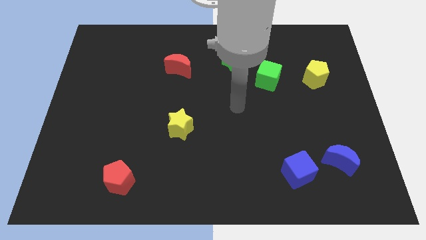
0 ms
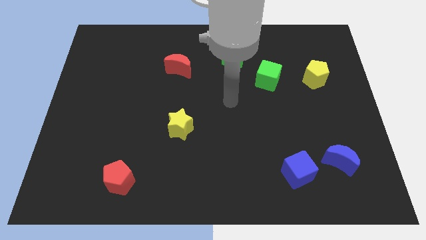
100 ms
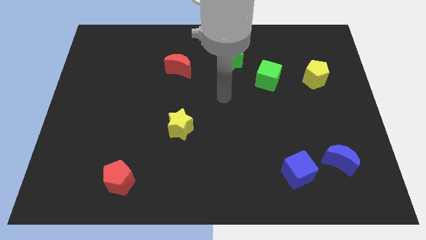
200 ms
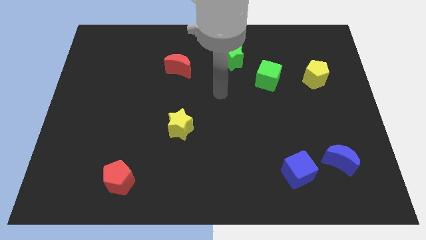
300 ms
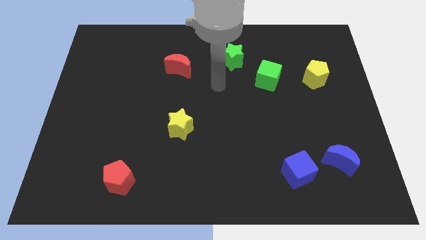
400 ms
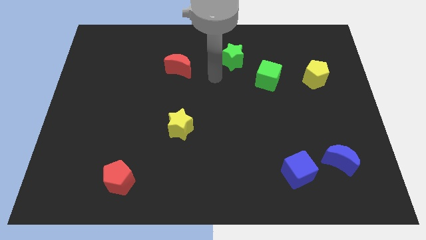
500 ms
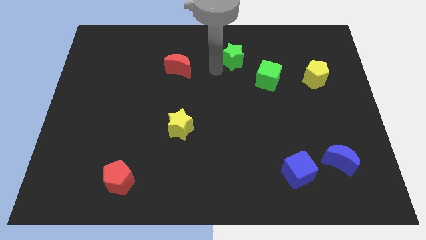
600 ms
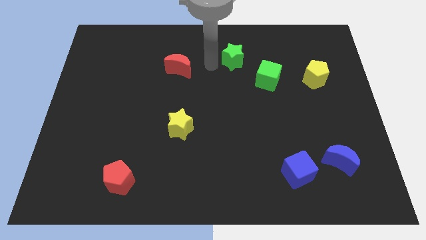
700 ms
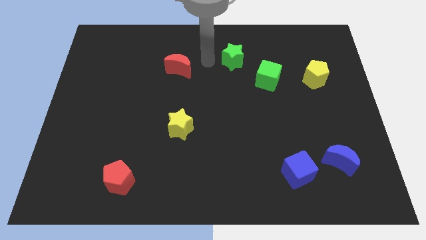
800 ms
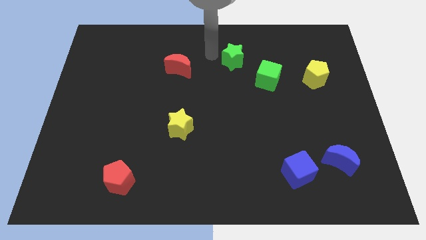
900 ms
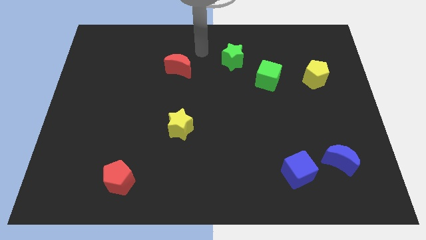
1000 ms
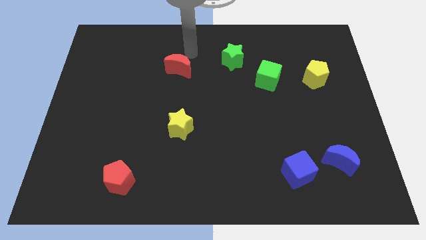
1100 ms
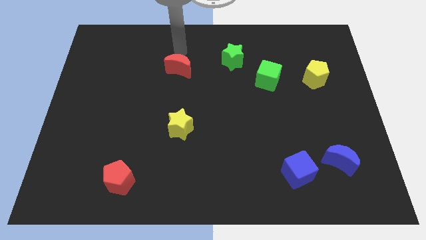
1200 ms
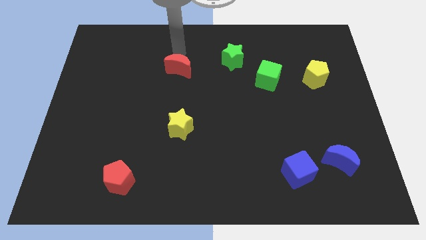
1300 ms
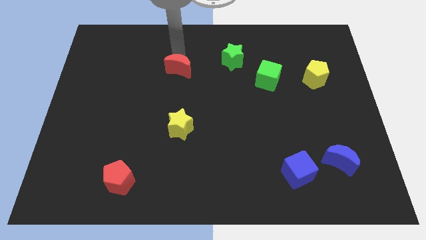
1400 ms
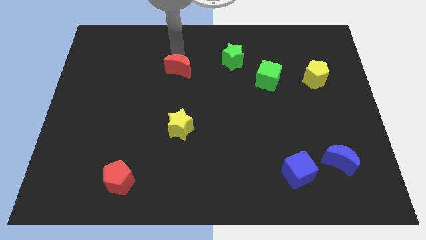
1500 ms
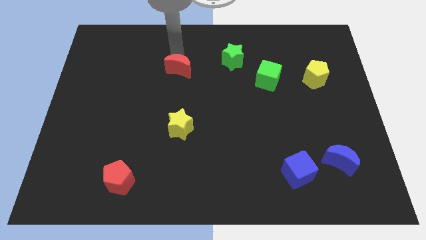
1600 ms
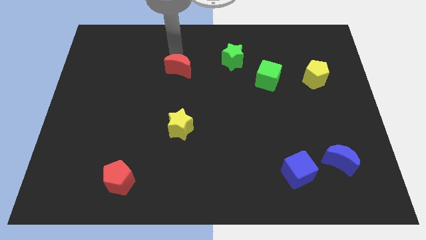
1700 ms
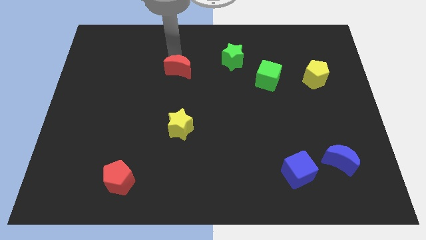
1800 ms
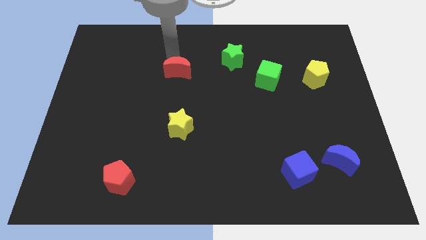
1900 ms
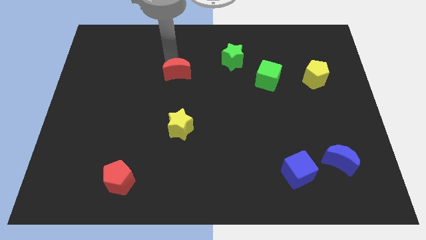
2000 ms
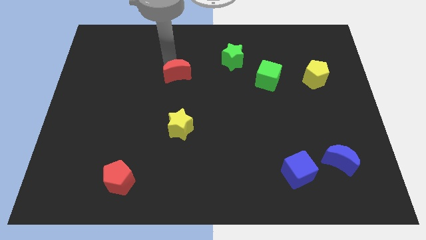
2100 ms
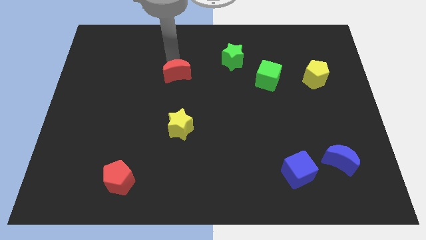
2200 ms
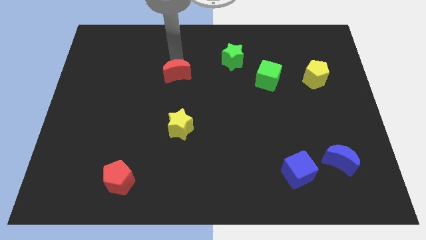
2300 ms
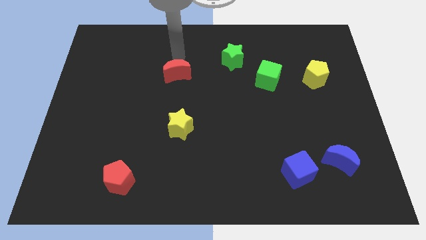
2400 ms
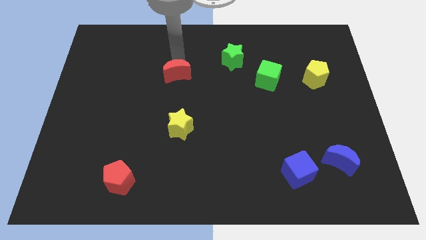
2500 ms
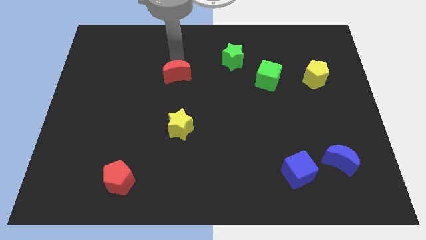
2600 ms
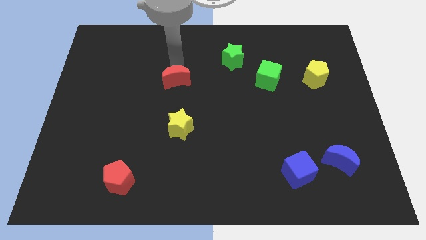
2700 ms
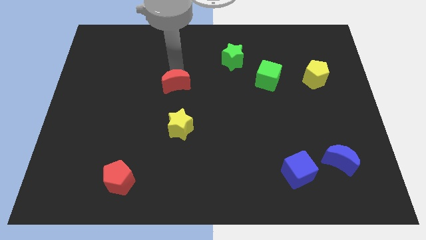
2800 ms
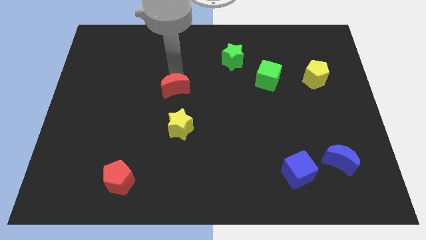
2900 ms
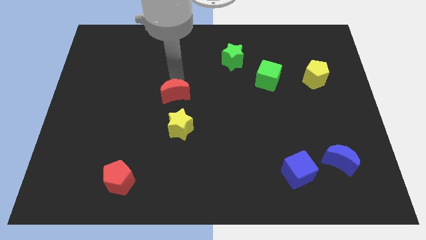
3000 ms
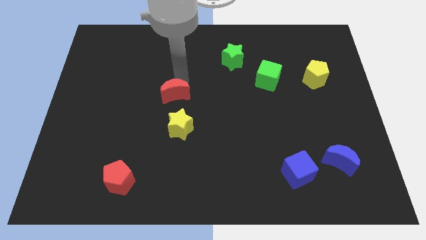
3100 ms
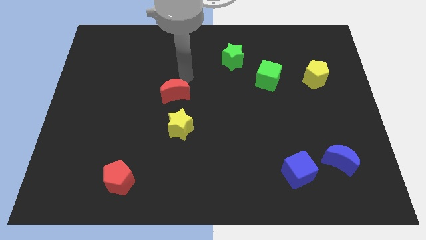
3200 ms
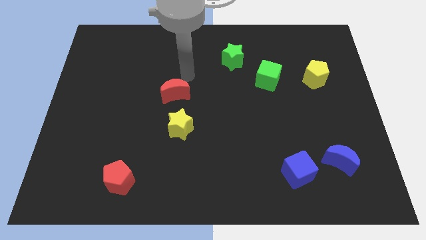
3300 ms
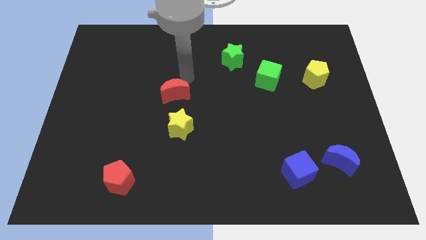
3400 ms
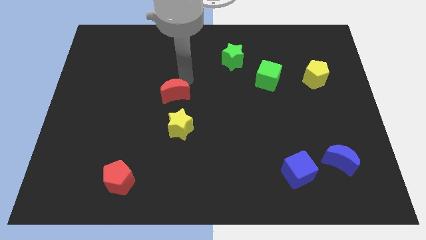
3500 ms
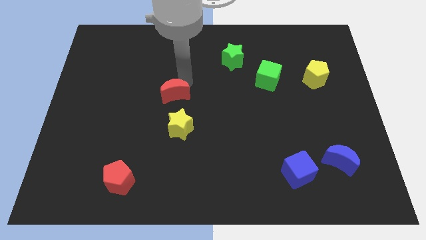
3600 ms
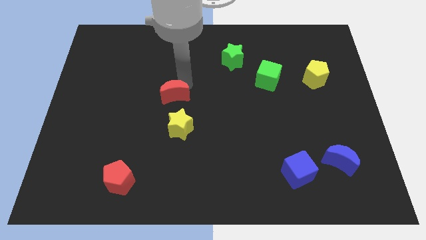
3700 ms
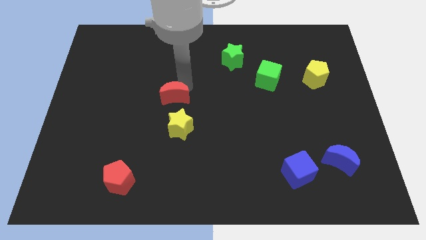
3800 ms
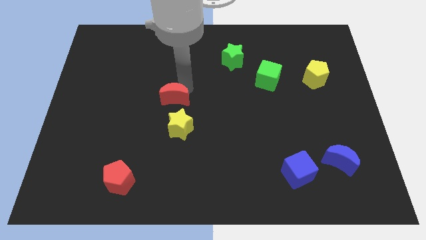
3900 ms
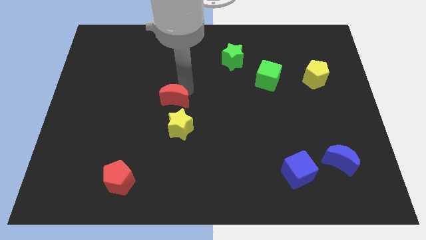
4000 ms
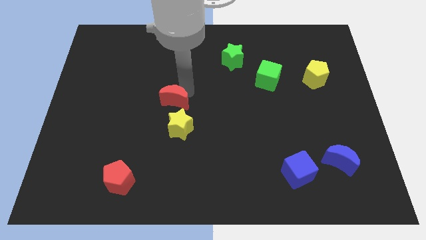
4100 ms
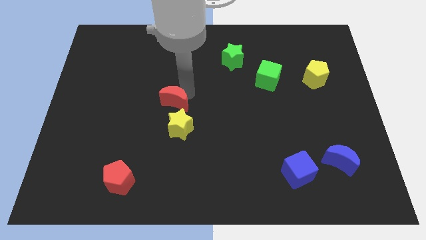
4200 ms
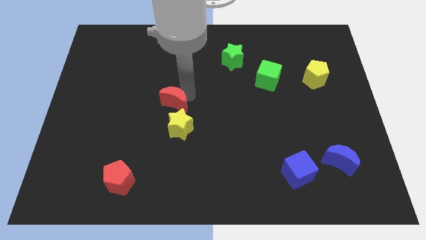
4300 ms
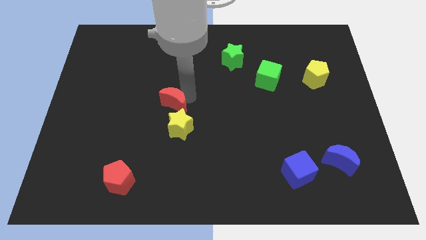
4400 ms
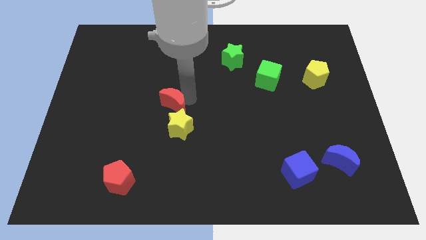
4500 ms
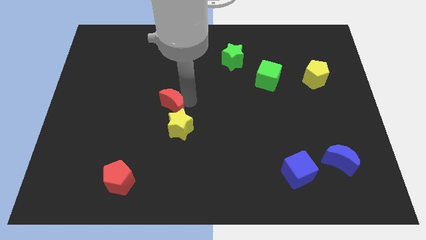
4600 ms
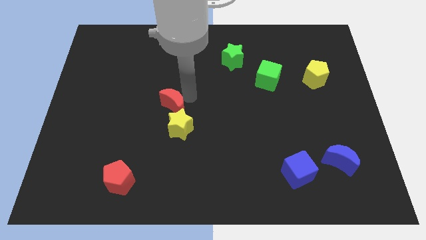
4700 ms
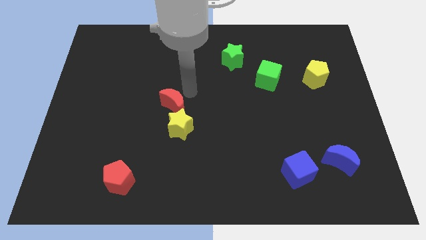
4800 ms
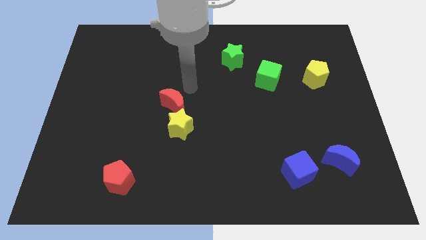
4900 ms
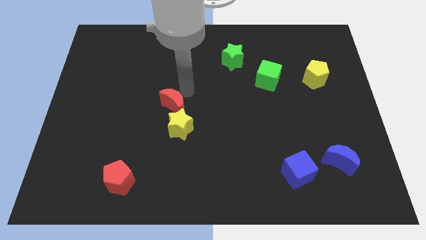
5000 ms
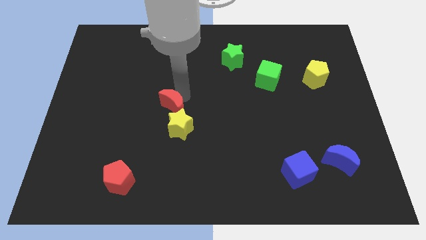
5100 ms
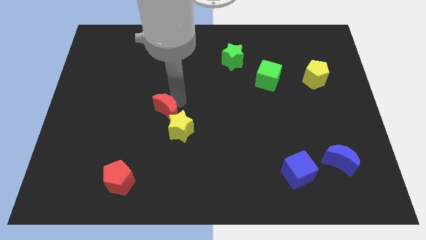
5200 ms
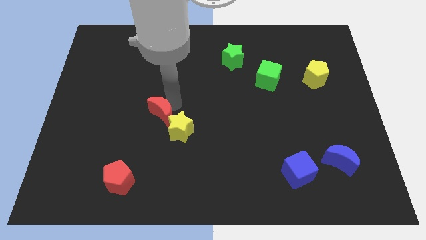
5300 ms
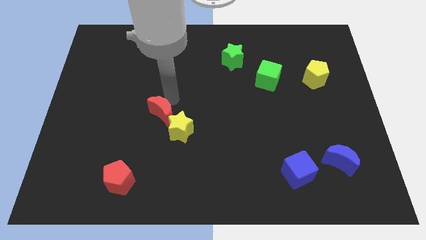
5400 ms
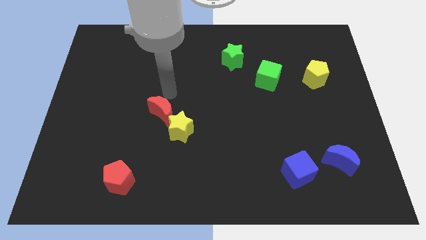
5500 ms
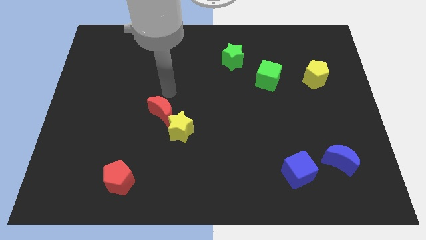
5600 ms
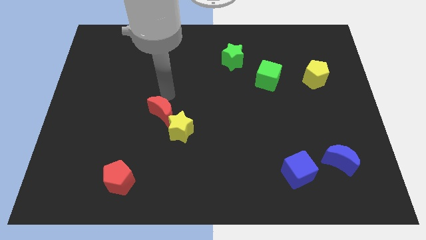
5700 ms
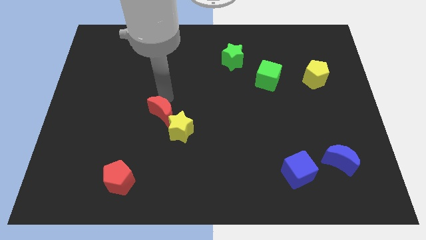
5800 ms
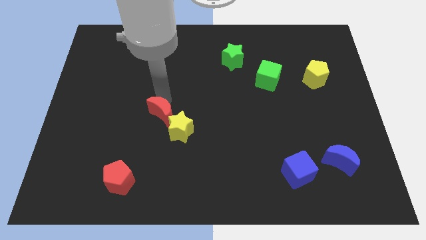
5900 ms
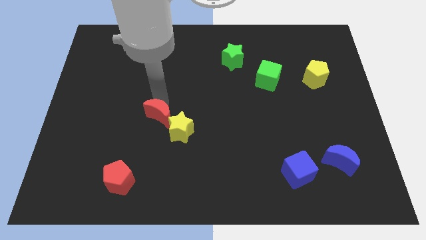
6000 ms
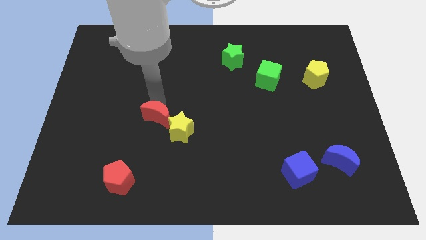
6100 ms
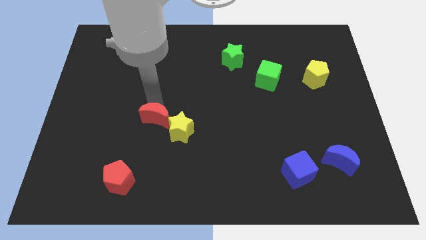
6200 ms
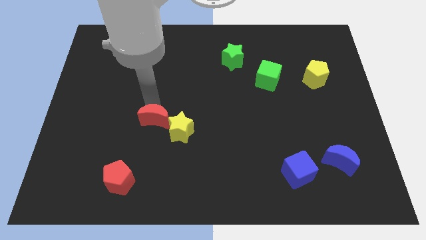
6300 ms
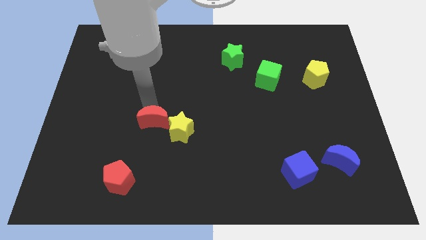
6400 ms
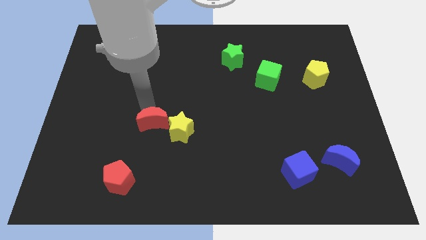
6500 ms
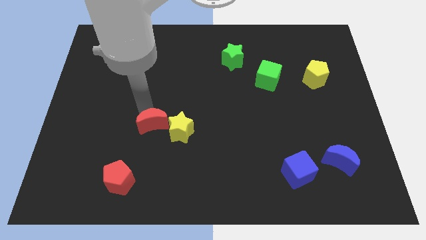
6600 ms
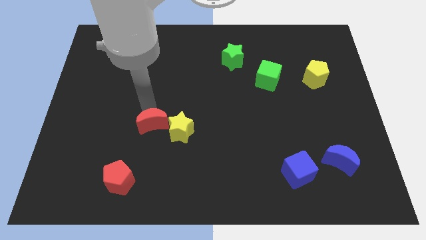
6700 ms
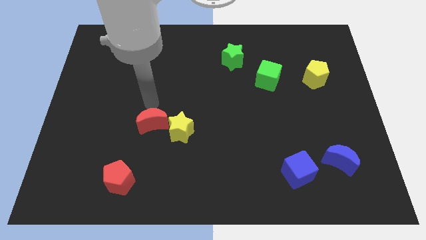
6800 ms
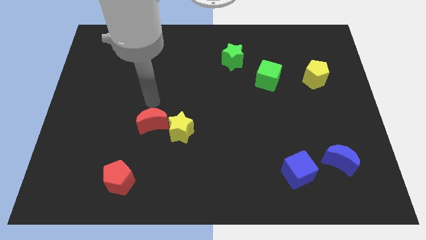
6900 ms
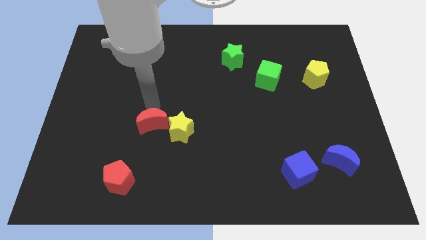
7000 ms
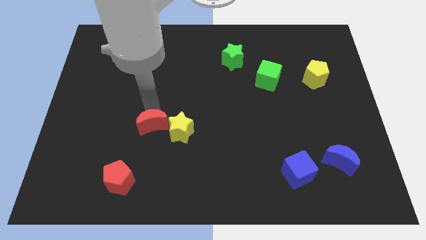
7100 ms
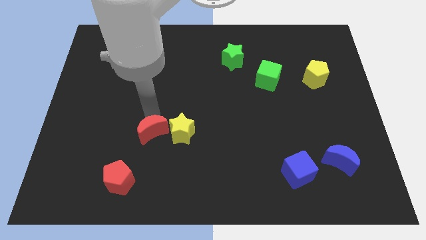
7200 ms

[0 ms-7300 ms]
move the red moon to the bottom left side of the yellow star

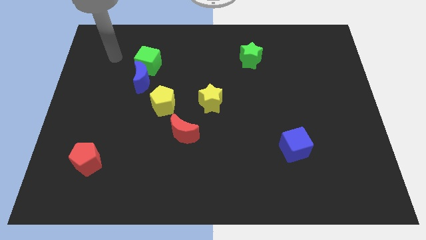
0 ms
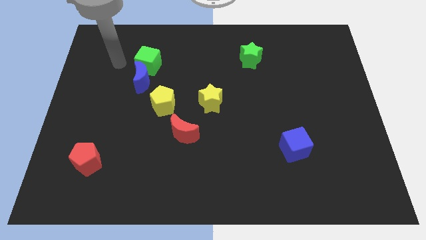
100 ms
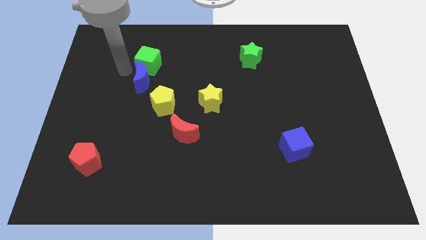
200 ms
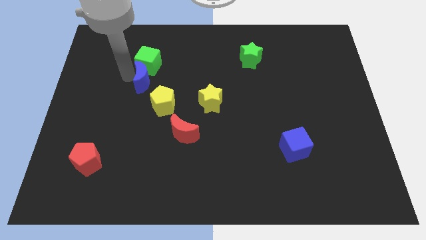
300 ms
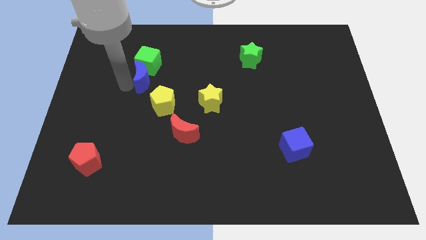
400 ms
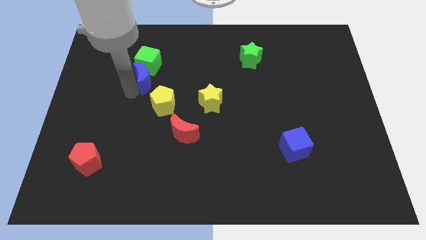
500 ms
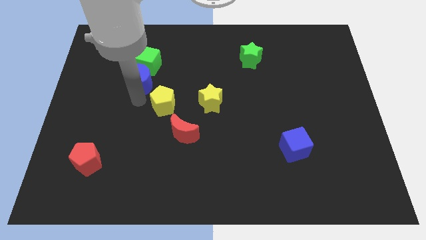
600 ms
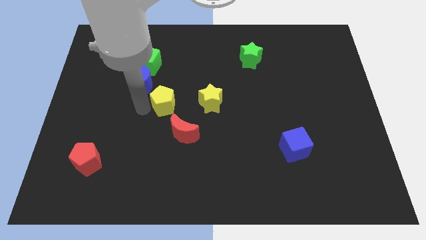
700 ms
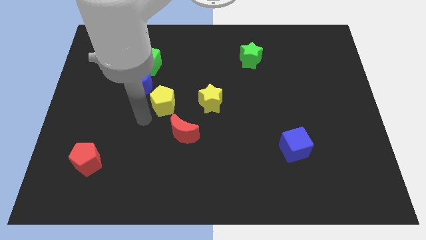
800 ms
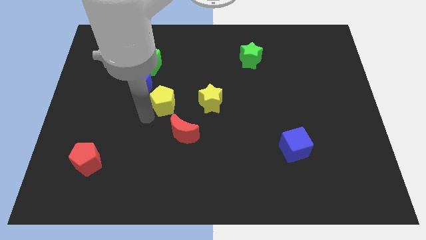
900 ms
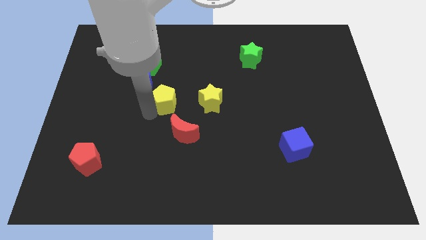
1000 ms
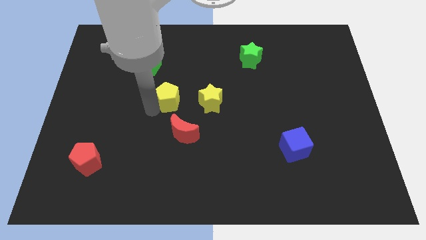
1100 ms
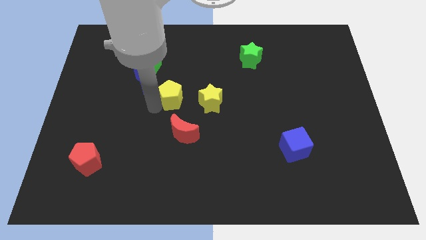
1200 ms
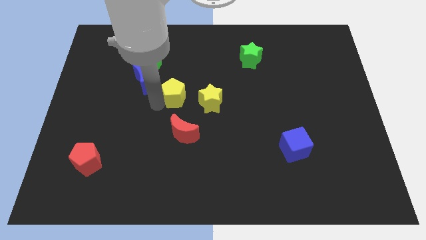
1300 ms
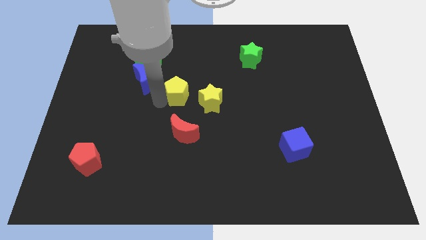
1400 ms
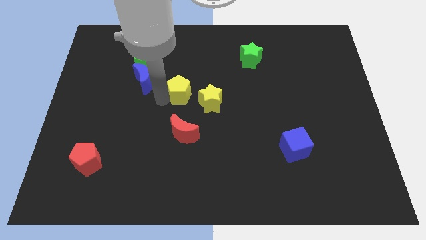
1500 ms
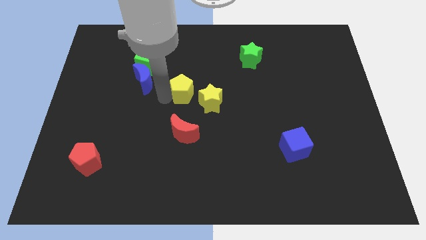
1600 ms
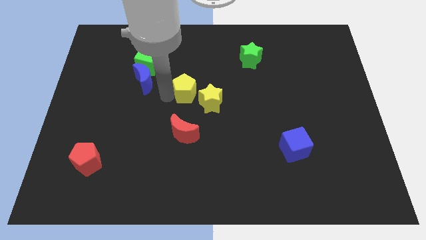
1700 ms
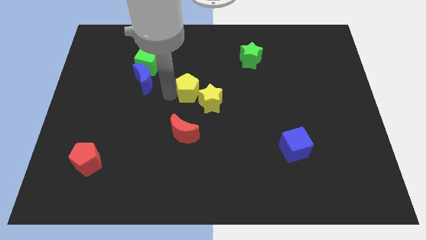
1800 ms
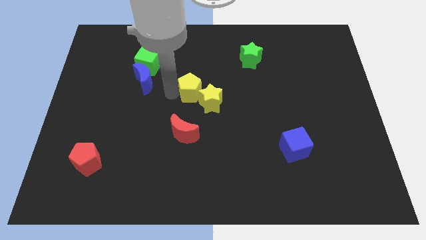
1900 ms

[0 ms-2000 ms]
push the yellow pentagon above the yellow star
